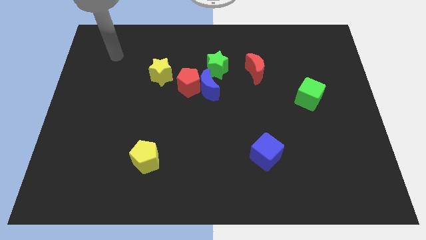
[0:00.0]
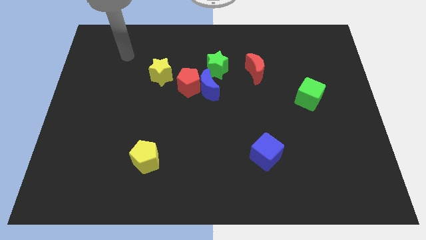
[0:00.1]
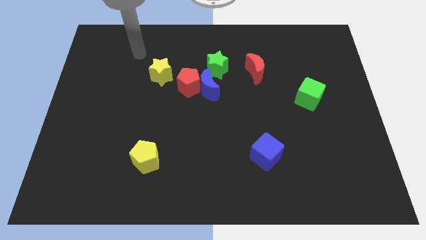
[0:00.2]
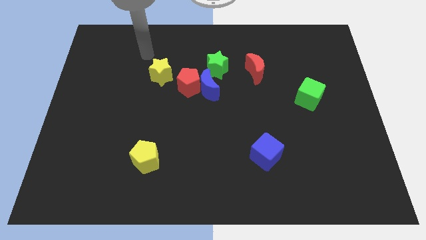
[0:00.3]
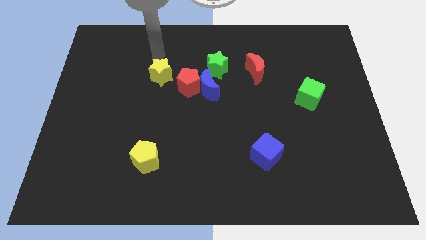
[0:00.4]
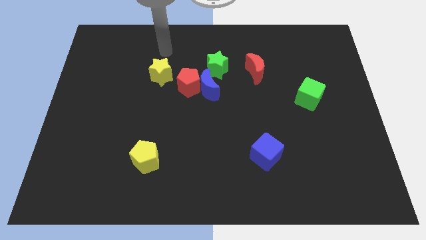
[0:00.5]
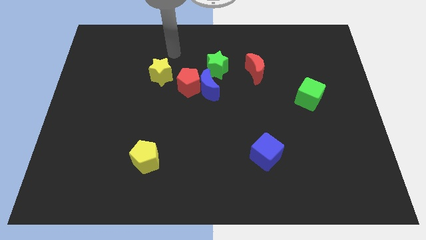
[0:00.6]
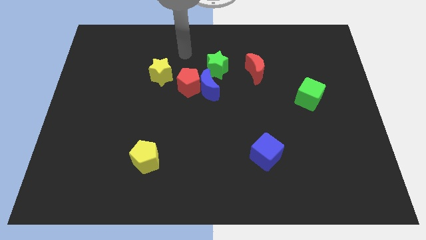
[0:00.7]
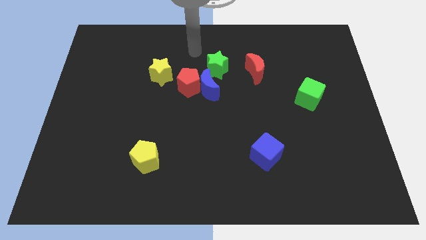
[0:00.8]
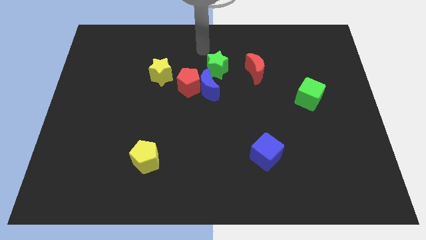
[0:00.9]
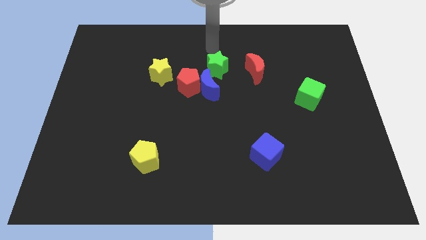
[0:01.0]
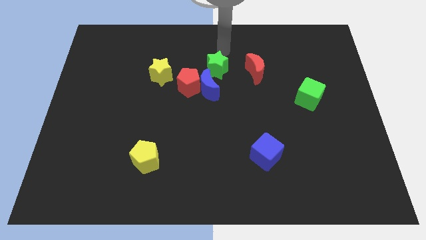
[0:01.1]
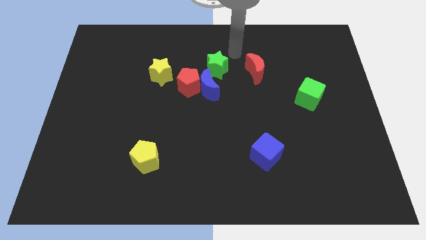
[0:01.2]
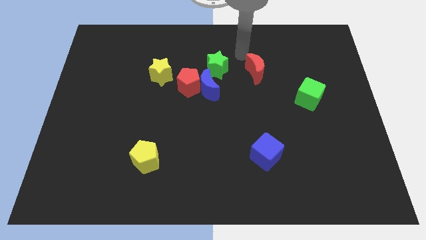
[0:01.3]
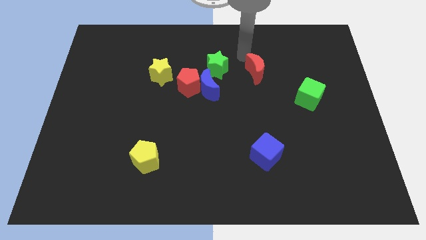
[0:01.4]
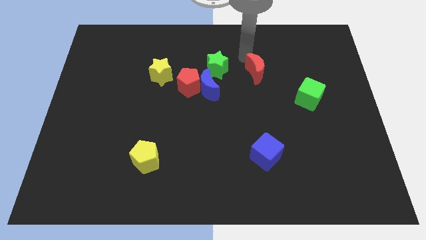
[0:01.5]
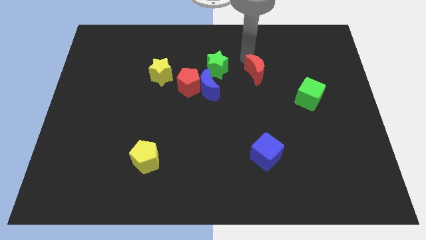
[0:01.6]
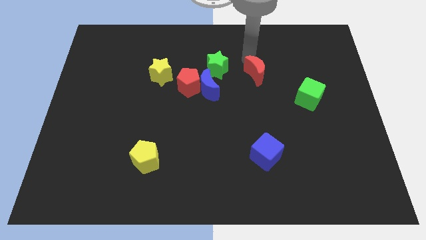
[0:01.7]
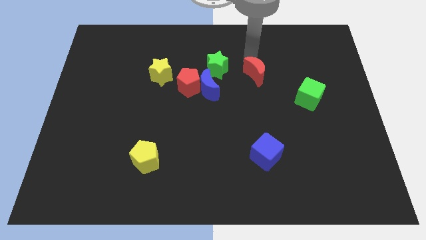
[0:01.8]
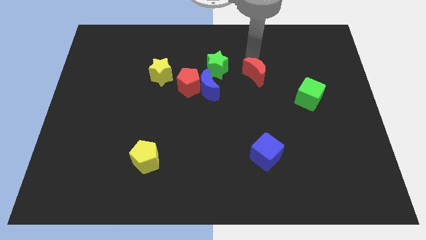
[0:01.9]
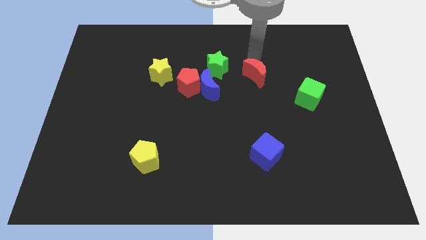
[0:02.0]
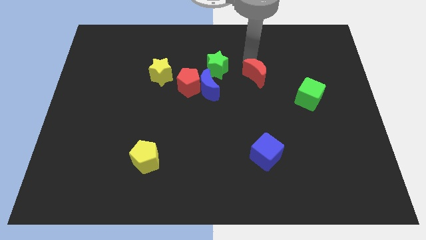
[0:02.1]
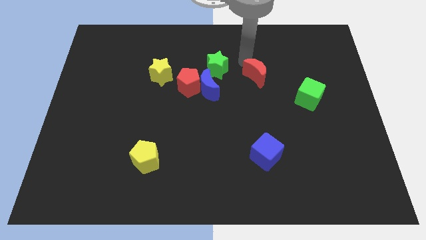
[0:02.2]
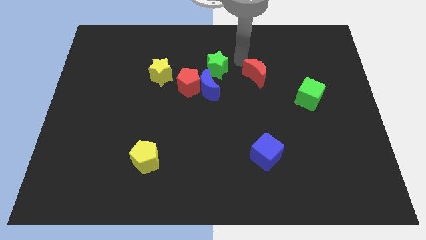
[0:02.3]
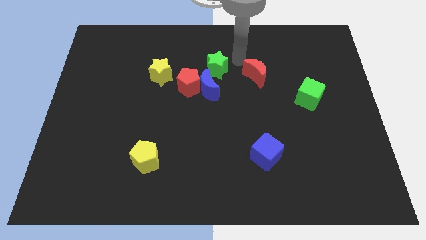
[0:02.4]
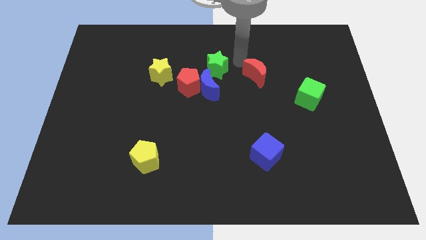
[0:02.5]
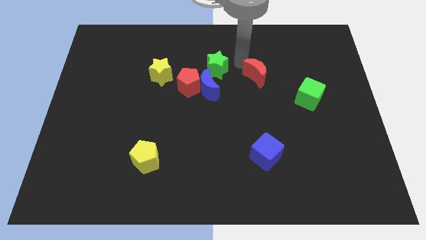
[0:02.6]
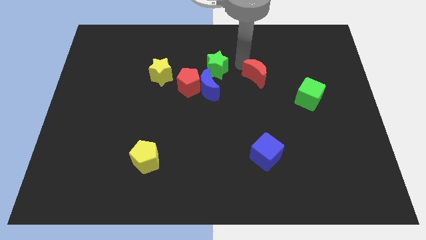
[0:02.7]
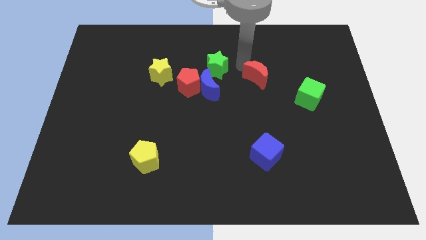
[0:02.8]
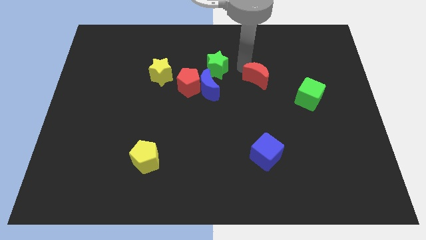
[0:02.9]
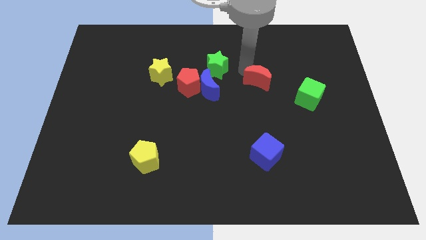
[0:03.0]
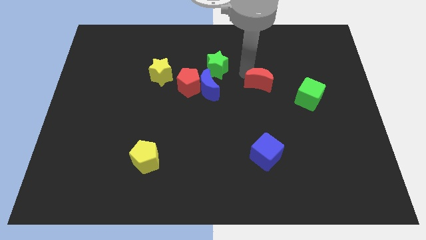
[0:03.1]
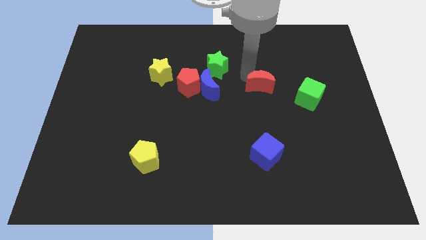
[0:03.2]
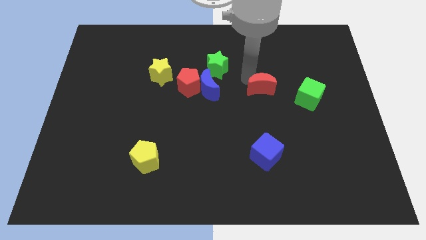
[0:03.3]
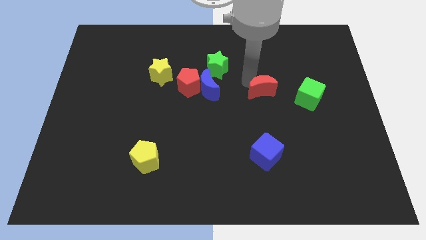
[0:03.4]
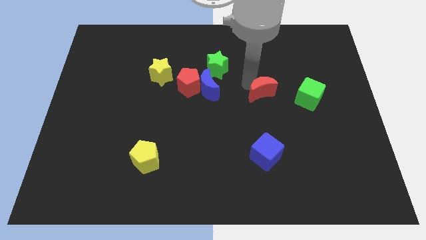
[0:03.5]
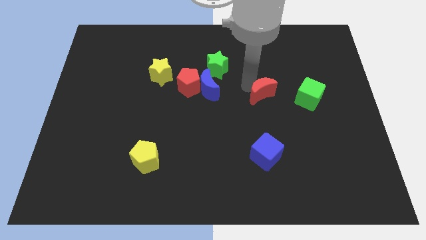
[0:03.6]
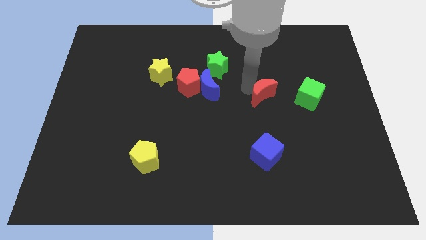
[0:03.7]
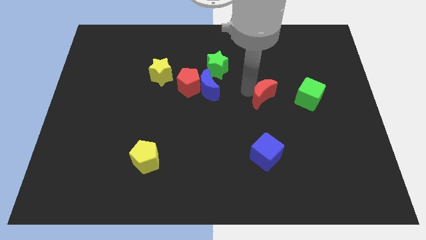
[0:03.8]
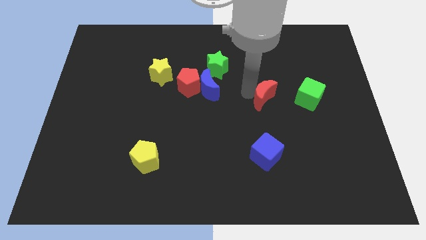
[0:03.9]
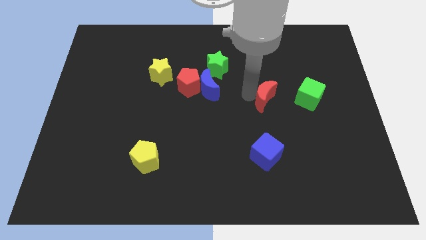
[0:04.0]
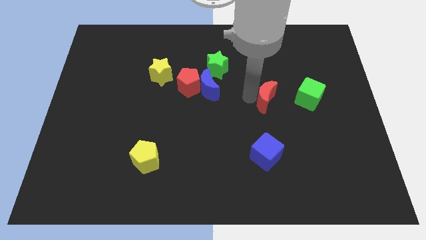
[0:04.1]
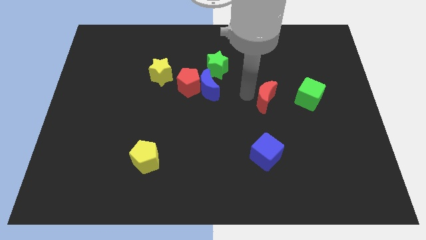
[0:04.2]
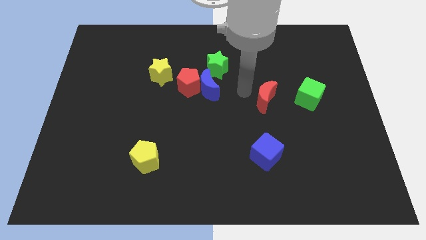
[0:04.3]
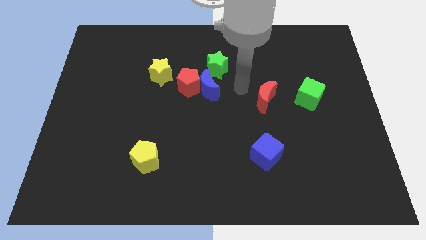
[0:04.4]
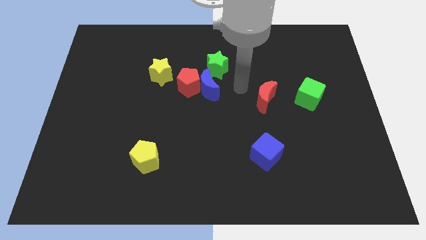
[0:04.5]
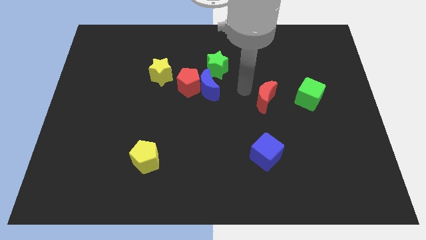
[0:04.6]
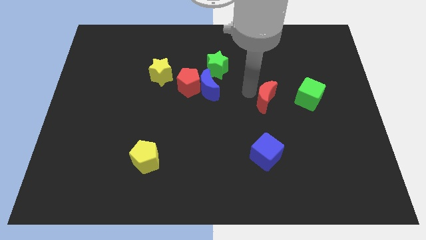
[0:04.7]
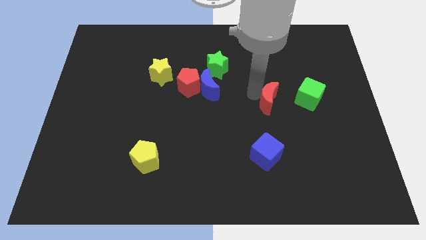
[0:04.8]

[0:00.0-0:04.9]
slightly push the red moon down and right

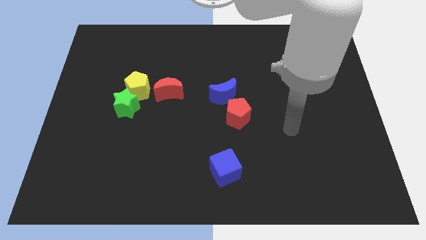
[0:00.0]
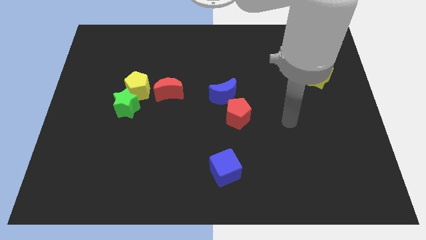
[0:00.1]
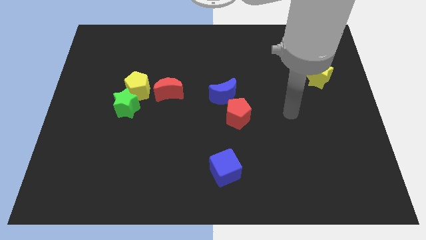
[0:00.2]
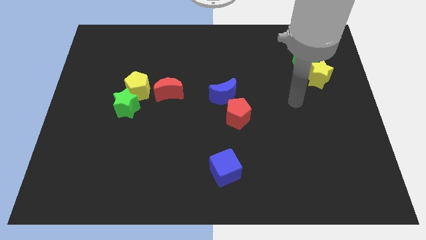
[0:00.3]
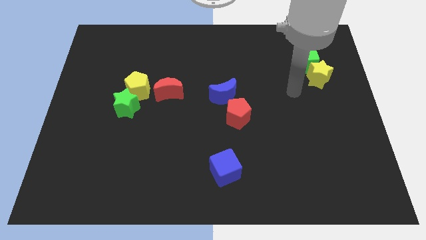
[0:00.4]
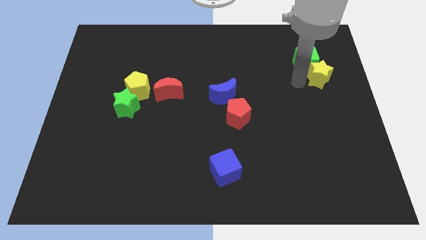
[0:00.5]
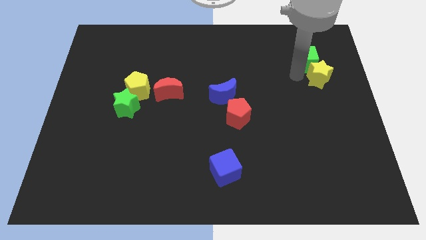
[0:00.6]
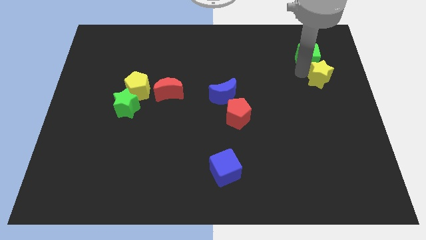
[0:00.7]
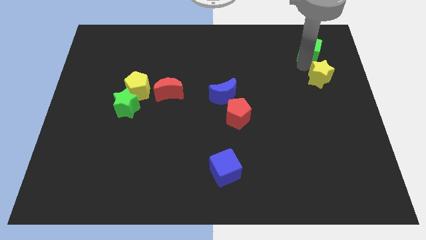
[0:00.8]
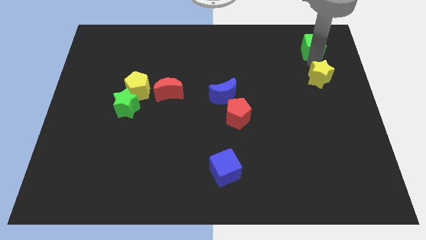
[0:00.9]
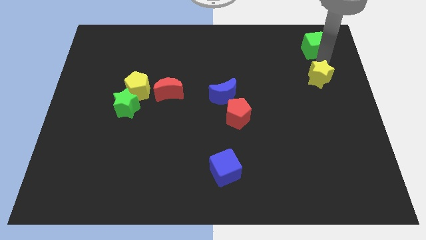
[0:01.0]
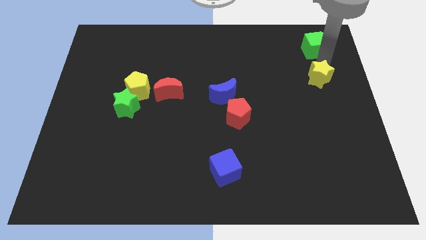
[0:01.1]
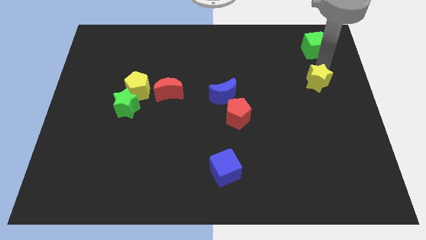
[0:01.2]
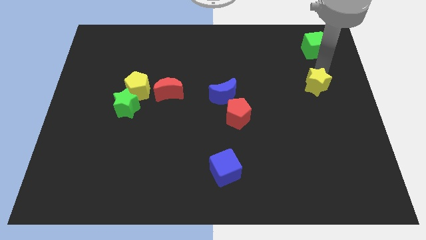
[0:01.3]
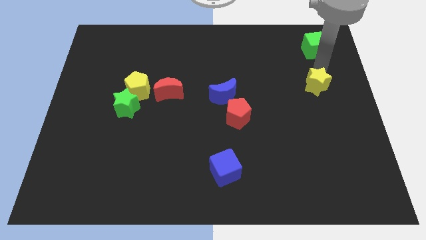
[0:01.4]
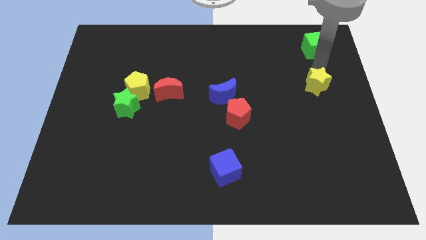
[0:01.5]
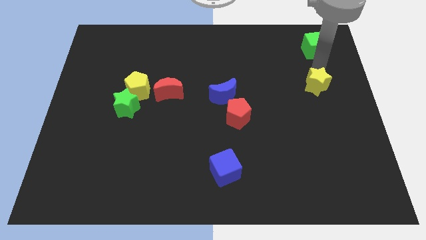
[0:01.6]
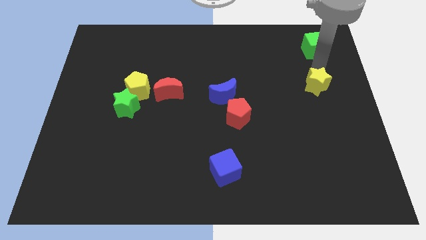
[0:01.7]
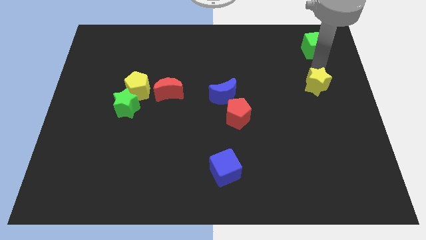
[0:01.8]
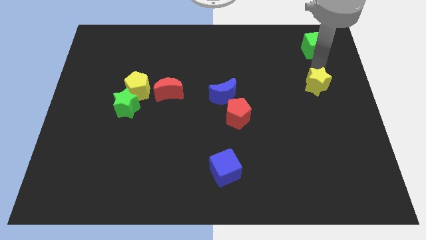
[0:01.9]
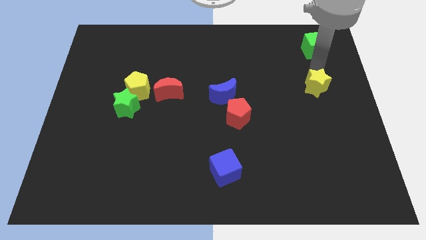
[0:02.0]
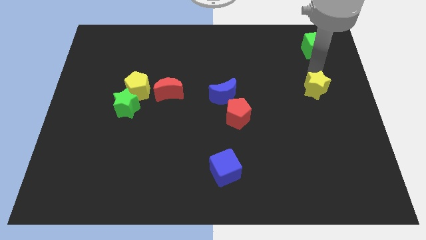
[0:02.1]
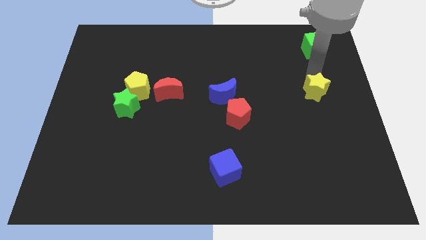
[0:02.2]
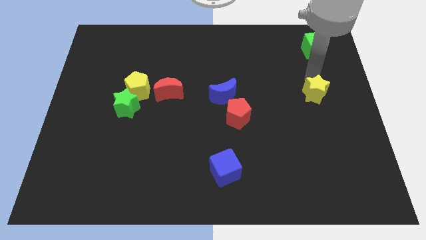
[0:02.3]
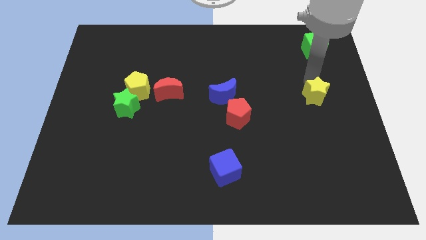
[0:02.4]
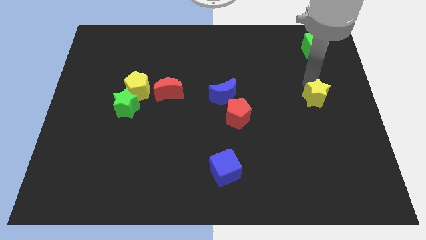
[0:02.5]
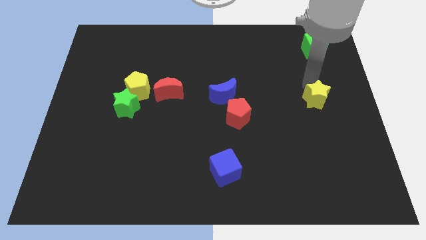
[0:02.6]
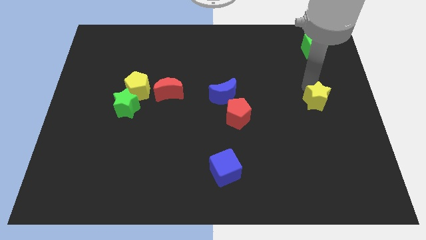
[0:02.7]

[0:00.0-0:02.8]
move the yellow star a bit down

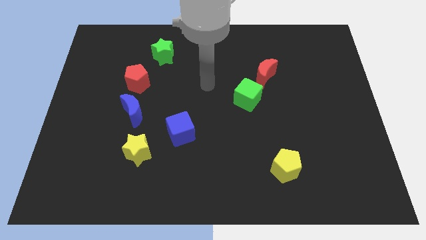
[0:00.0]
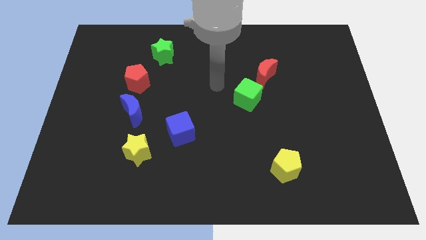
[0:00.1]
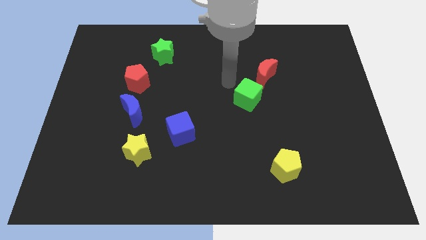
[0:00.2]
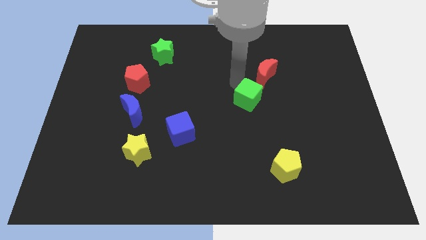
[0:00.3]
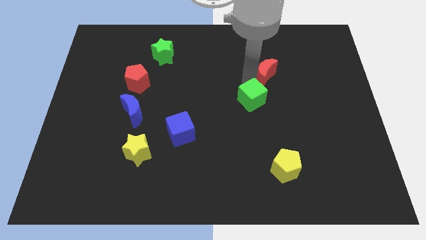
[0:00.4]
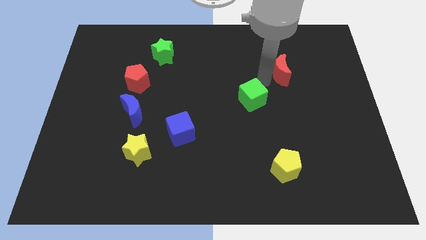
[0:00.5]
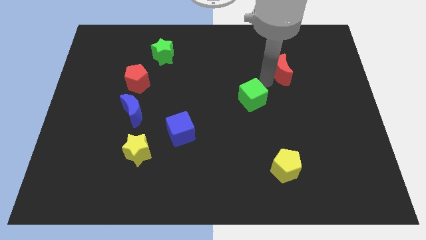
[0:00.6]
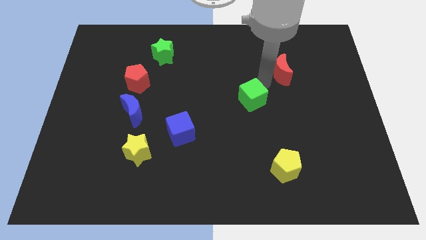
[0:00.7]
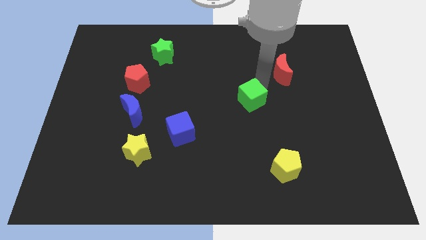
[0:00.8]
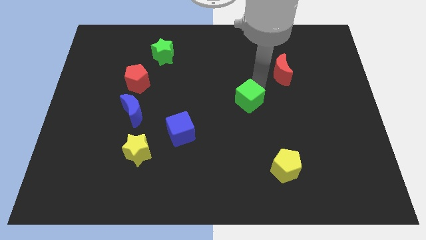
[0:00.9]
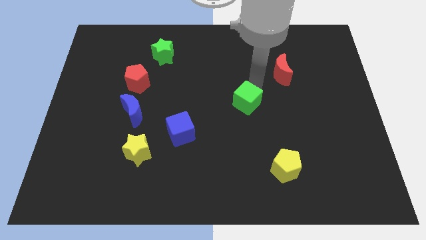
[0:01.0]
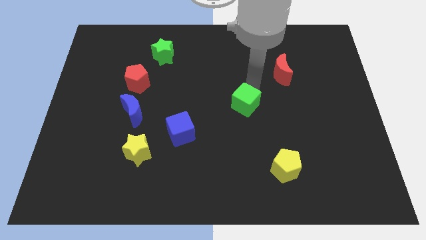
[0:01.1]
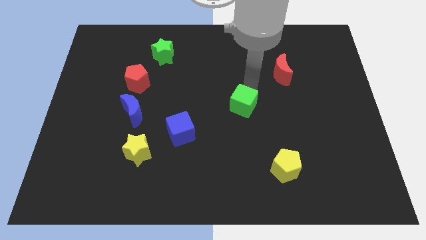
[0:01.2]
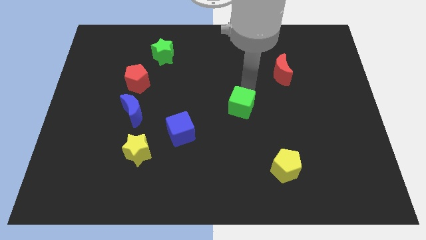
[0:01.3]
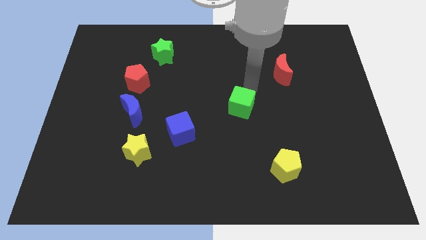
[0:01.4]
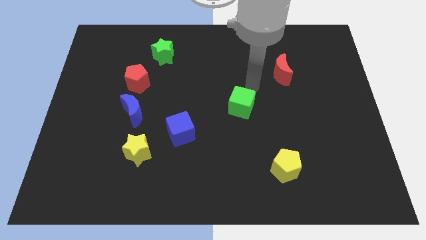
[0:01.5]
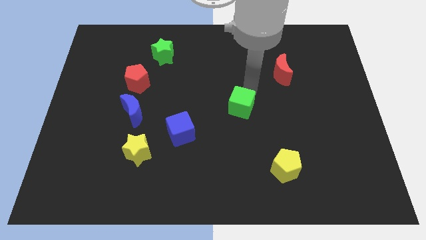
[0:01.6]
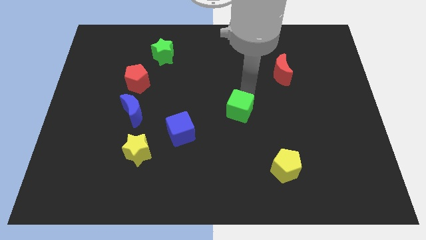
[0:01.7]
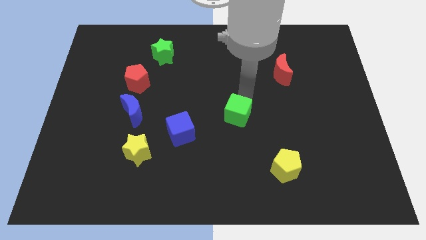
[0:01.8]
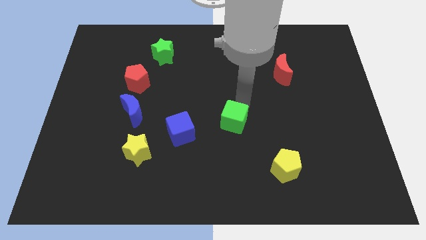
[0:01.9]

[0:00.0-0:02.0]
push the green cube down and to the left a bit
